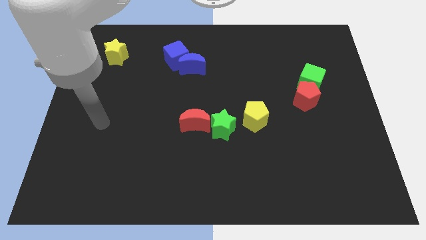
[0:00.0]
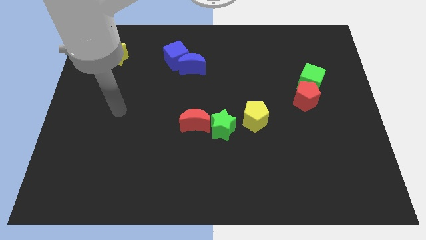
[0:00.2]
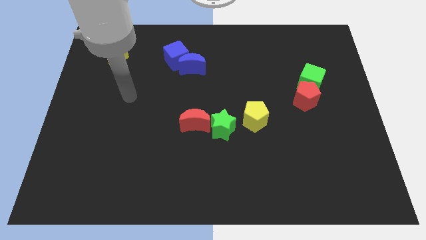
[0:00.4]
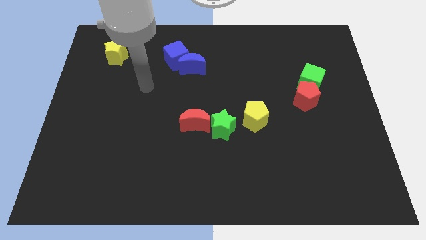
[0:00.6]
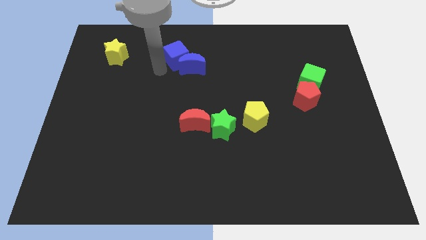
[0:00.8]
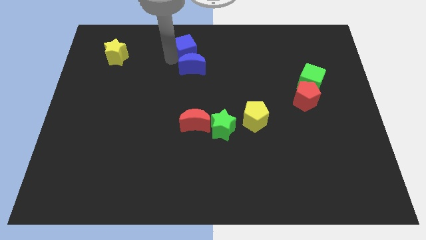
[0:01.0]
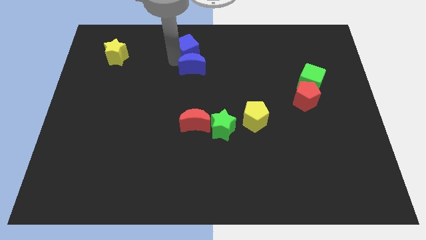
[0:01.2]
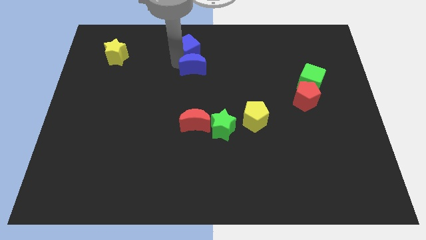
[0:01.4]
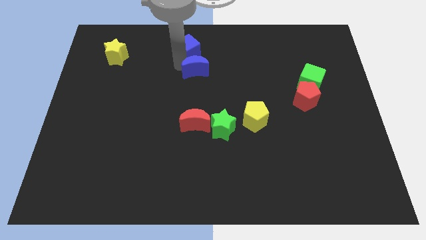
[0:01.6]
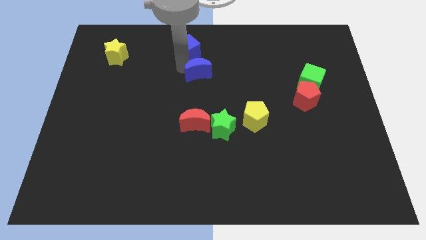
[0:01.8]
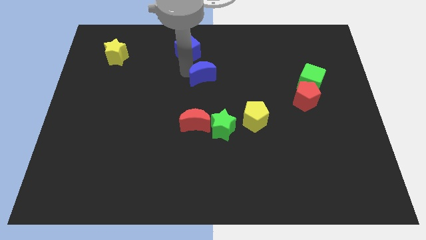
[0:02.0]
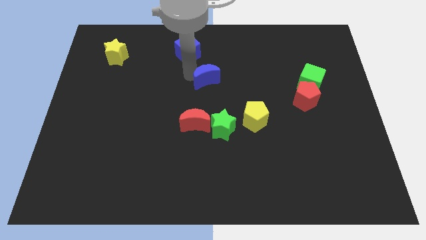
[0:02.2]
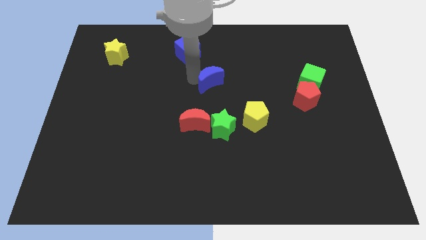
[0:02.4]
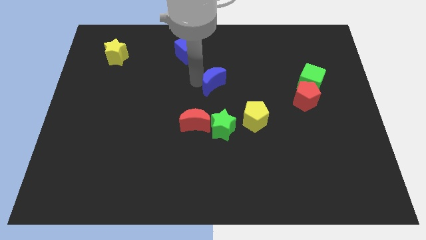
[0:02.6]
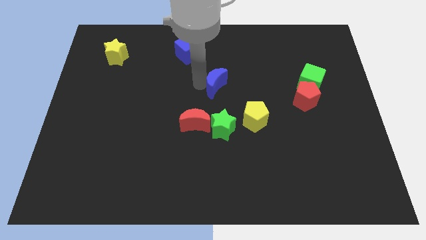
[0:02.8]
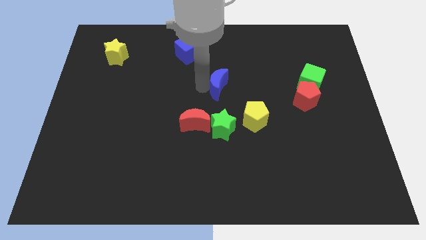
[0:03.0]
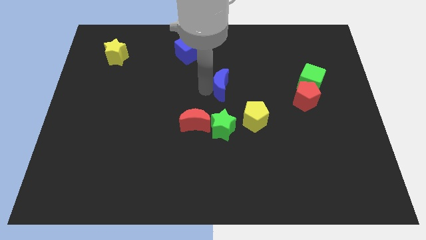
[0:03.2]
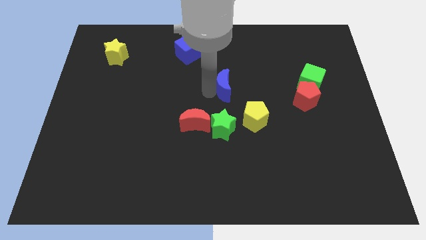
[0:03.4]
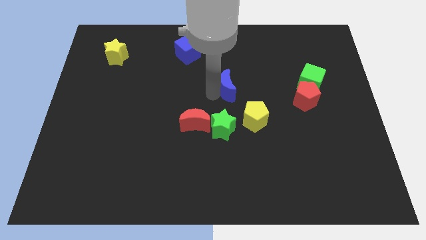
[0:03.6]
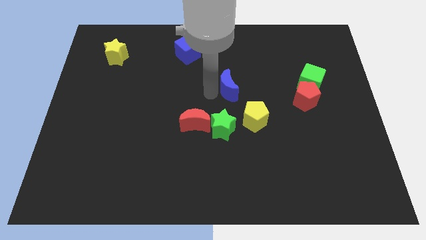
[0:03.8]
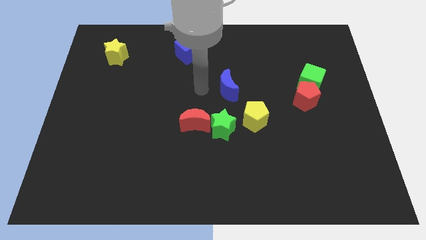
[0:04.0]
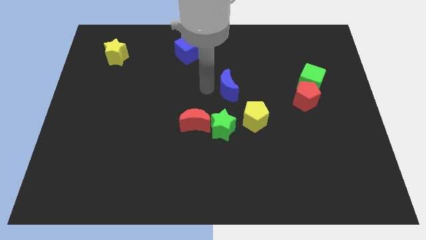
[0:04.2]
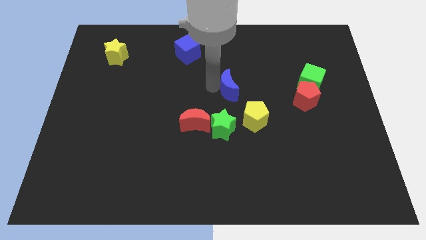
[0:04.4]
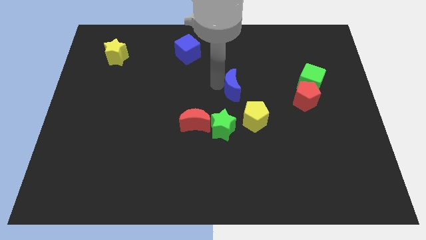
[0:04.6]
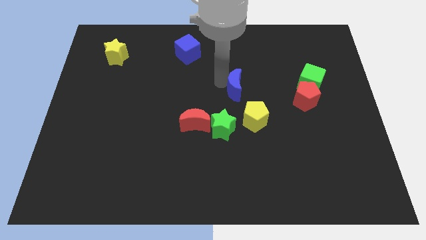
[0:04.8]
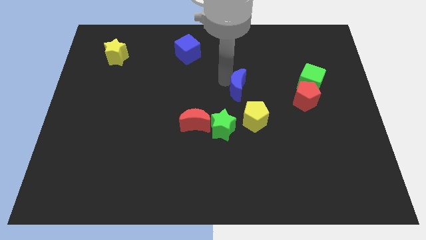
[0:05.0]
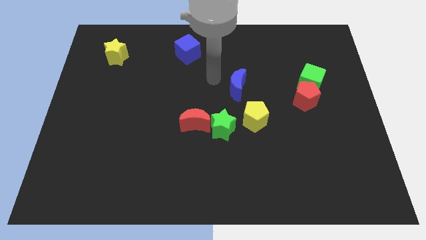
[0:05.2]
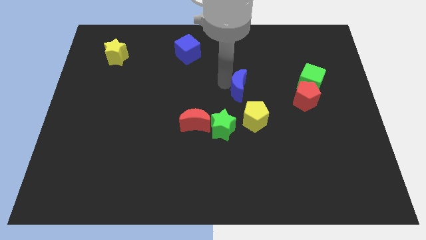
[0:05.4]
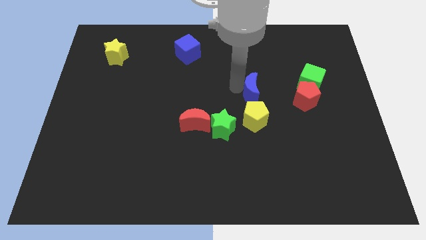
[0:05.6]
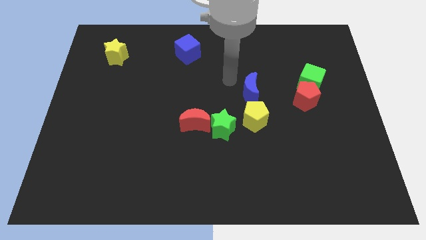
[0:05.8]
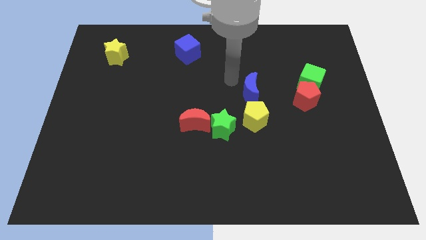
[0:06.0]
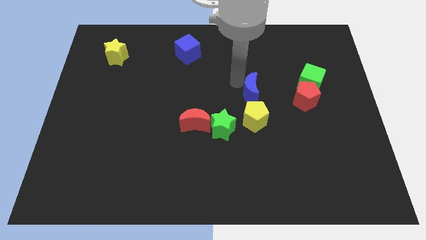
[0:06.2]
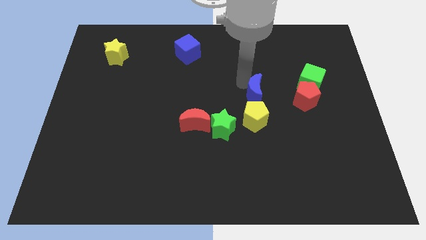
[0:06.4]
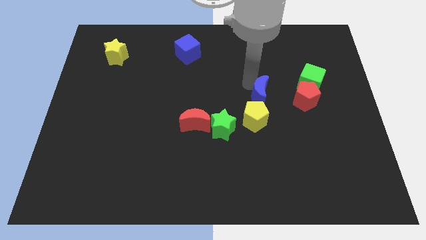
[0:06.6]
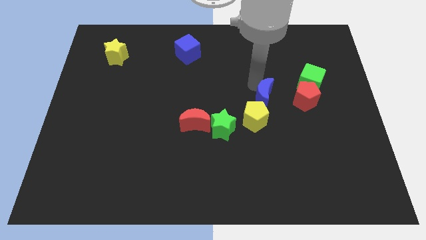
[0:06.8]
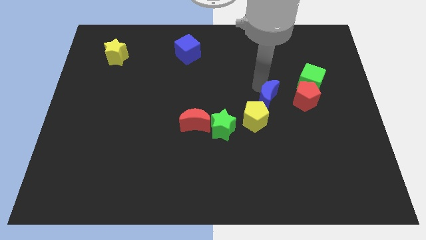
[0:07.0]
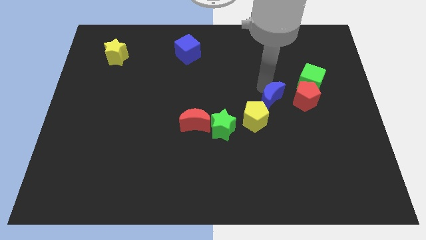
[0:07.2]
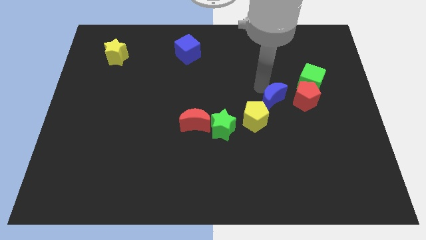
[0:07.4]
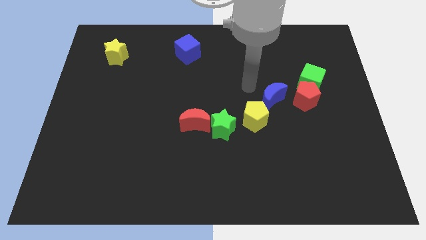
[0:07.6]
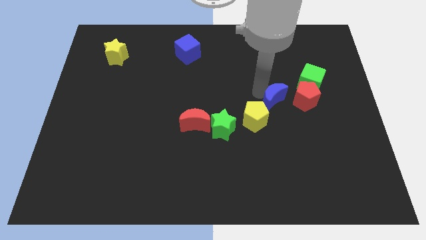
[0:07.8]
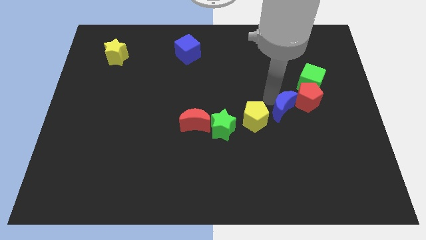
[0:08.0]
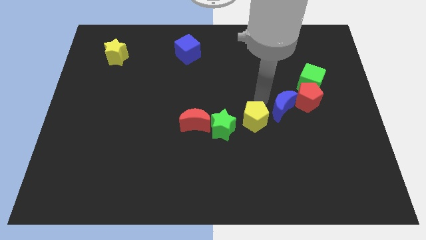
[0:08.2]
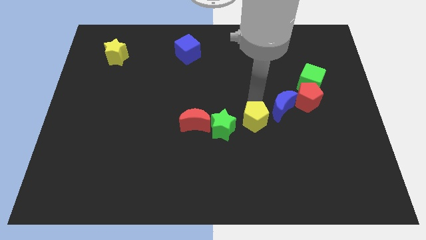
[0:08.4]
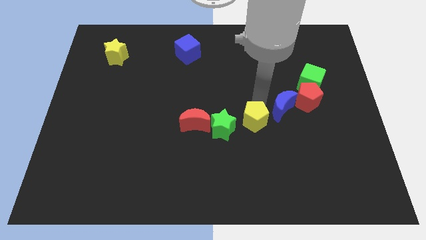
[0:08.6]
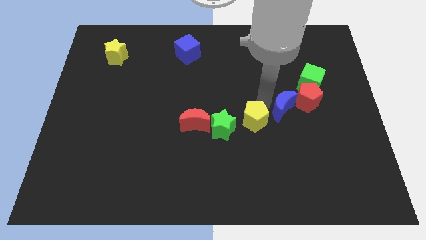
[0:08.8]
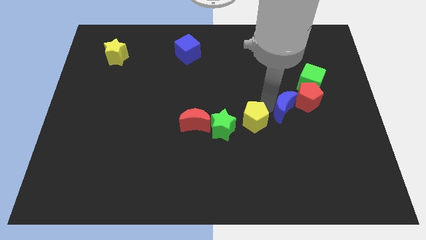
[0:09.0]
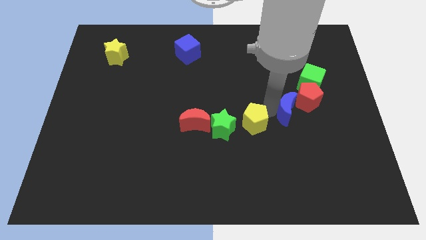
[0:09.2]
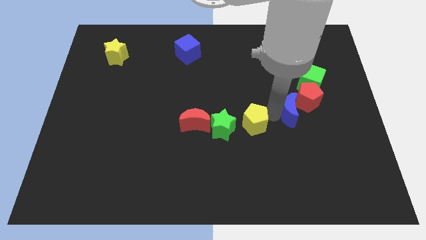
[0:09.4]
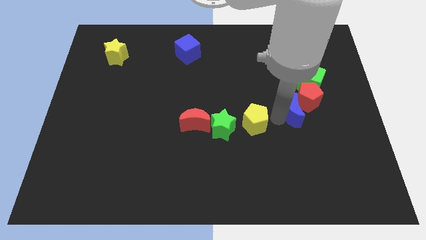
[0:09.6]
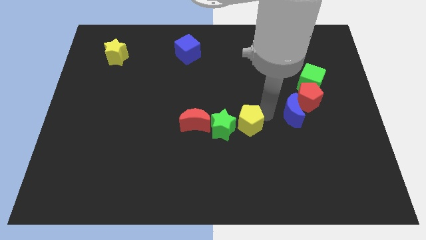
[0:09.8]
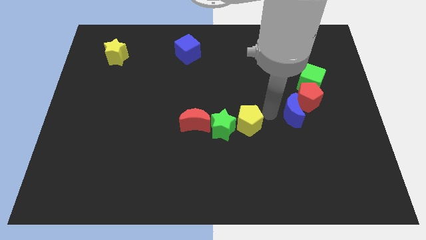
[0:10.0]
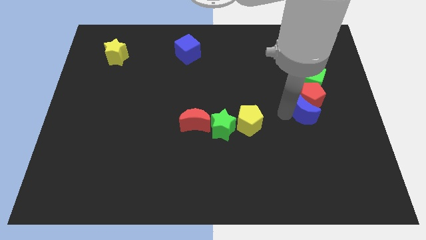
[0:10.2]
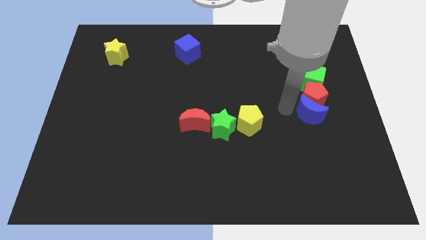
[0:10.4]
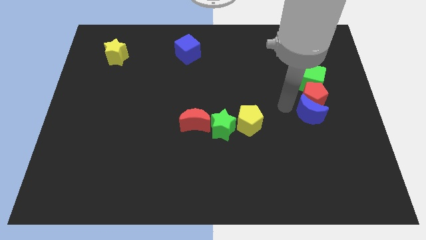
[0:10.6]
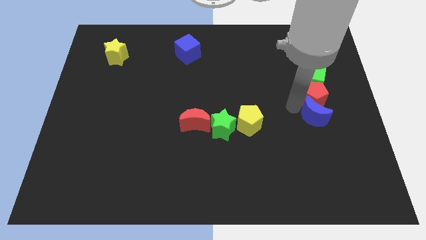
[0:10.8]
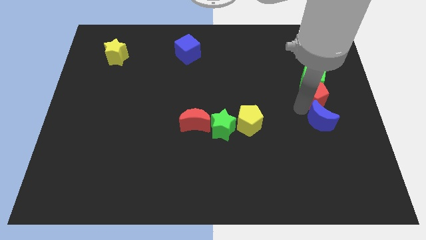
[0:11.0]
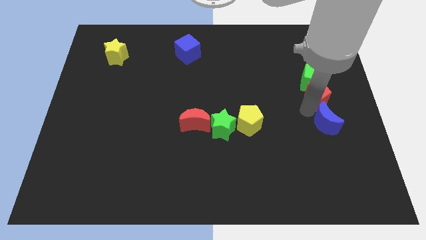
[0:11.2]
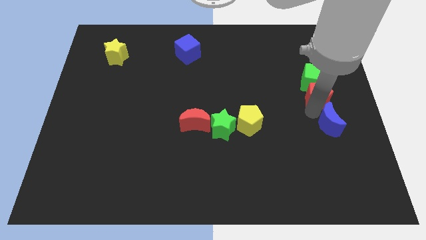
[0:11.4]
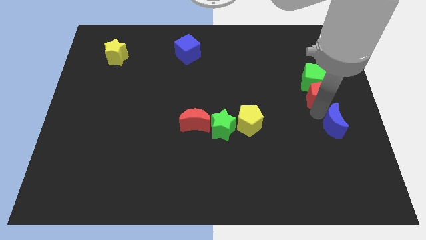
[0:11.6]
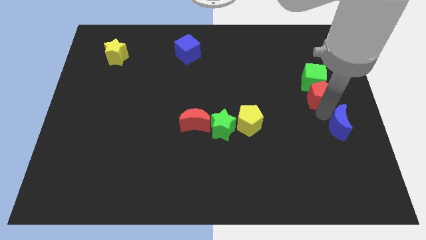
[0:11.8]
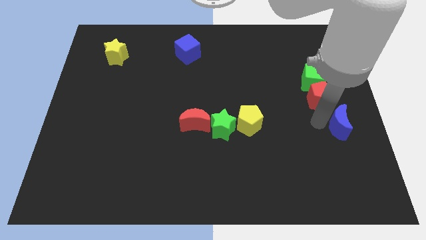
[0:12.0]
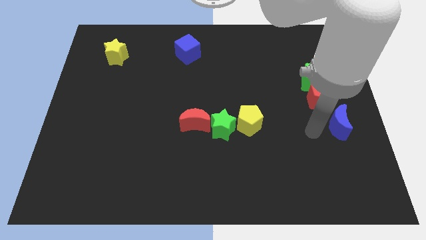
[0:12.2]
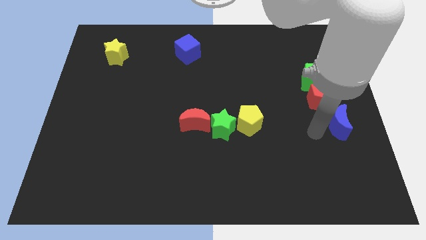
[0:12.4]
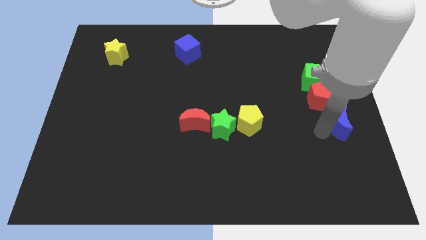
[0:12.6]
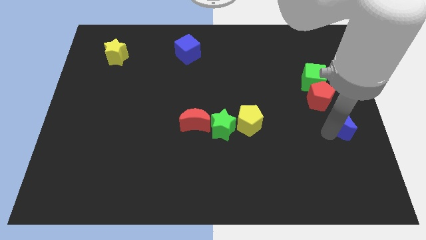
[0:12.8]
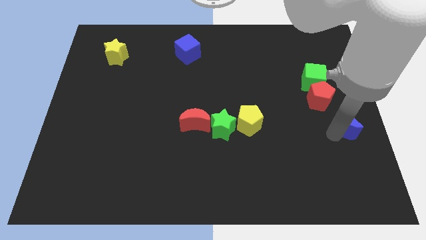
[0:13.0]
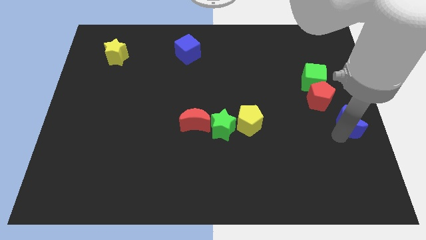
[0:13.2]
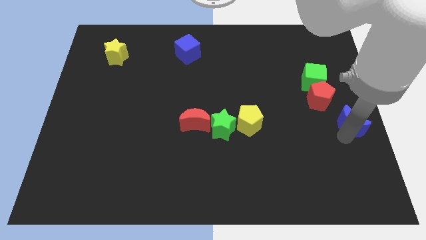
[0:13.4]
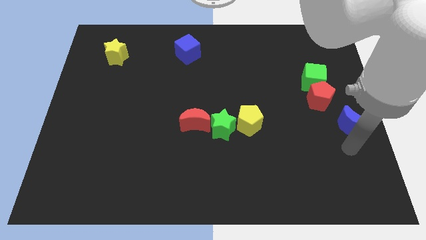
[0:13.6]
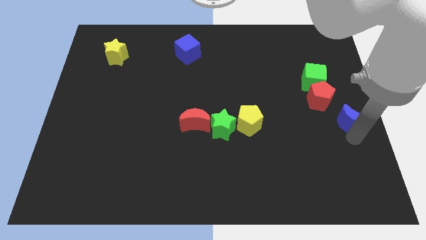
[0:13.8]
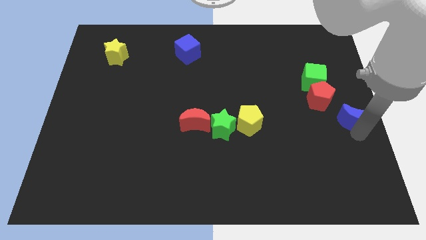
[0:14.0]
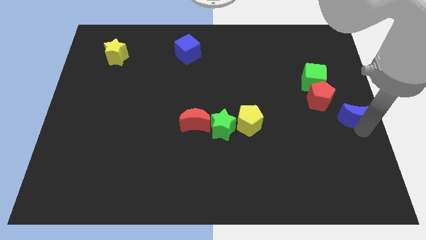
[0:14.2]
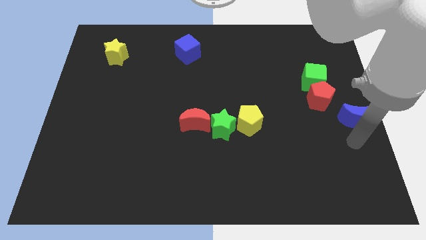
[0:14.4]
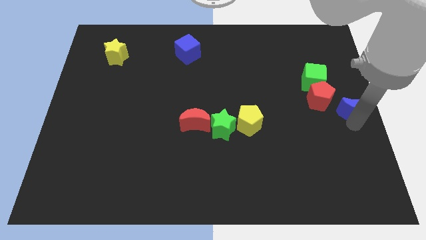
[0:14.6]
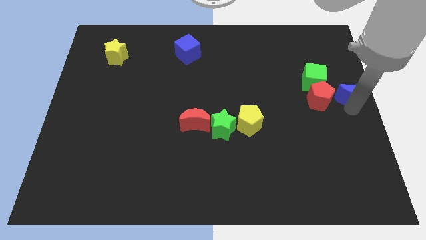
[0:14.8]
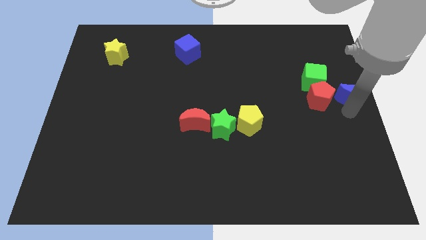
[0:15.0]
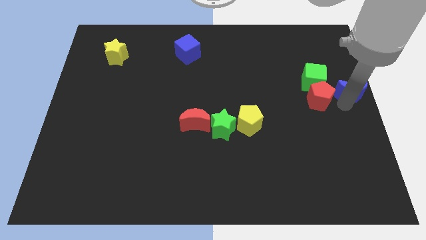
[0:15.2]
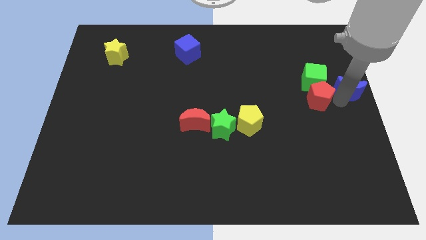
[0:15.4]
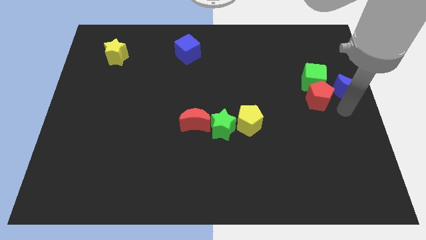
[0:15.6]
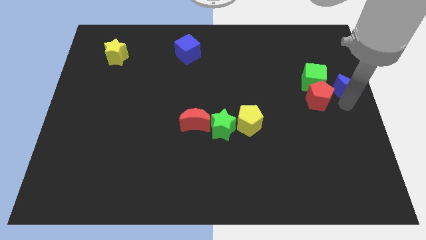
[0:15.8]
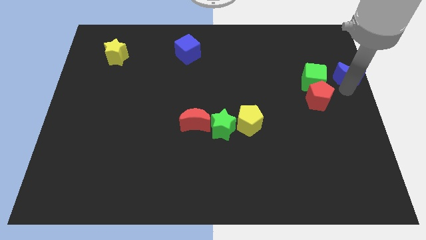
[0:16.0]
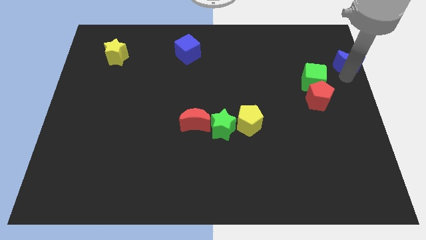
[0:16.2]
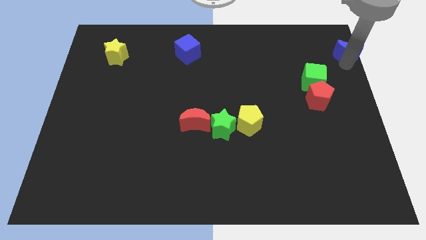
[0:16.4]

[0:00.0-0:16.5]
put the blue moon to the top right of the board
